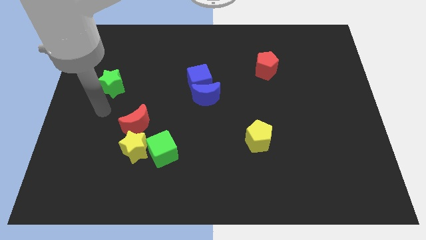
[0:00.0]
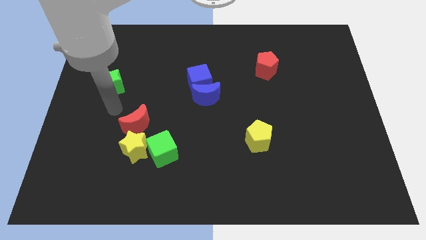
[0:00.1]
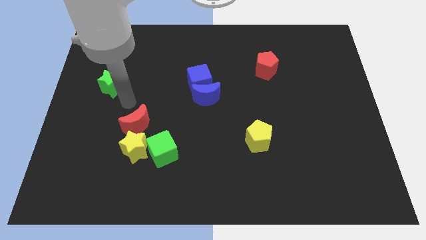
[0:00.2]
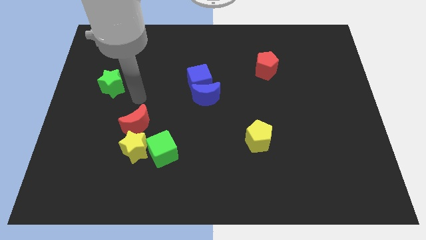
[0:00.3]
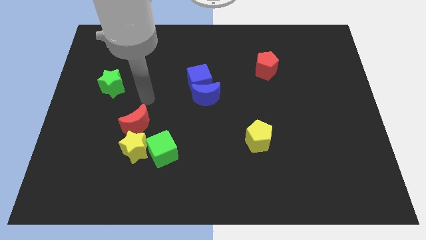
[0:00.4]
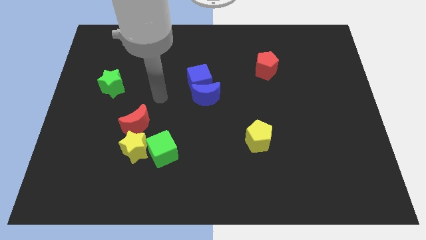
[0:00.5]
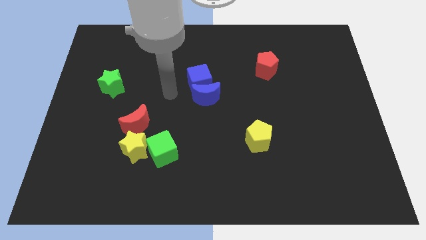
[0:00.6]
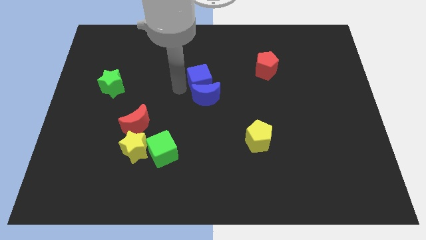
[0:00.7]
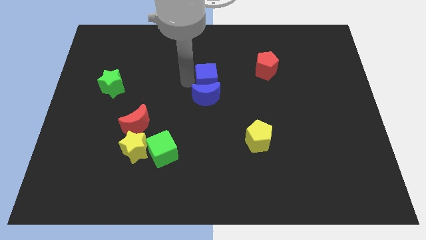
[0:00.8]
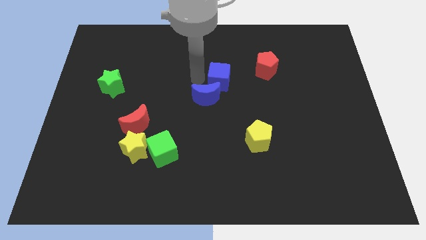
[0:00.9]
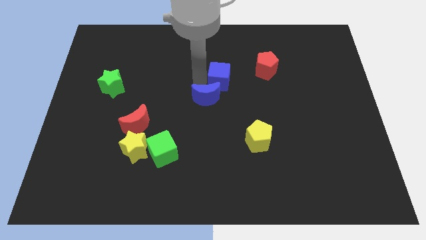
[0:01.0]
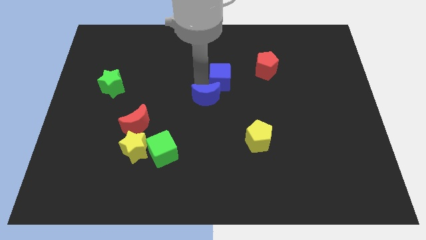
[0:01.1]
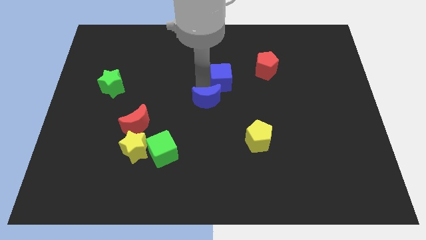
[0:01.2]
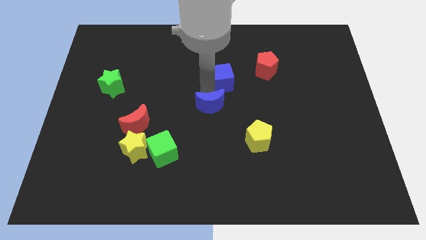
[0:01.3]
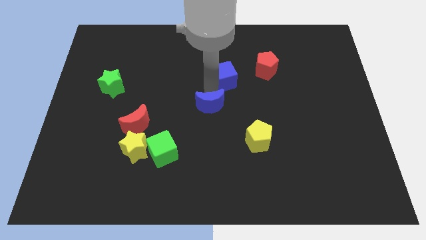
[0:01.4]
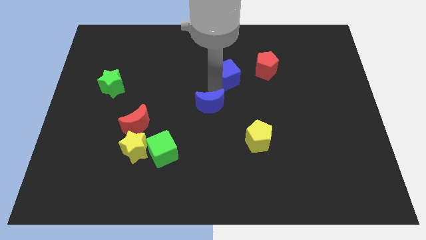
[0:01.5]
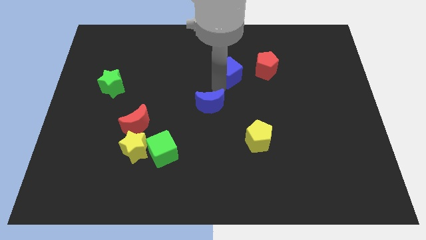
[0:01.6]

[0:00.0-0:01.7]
separate the blue moon from the blue cube

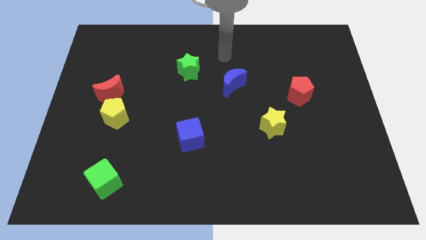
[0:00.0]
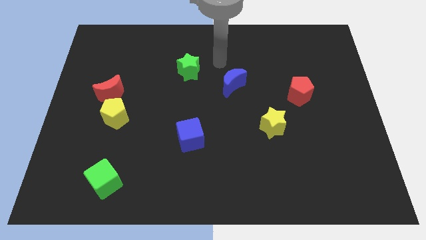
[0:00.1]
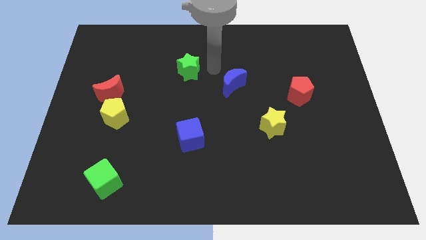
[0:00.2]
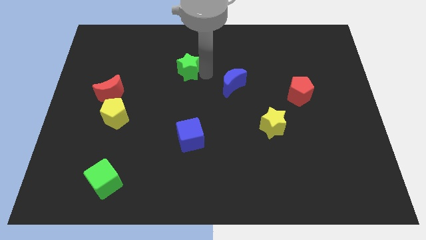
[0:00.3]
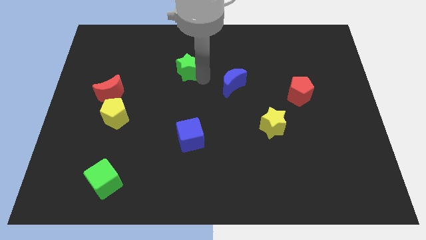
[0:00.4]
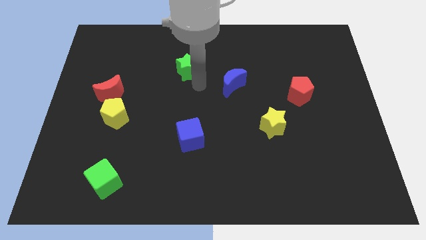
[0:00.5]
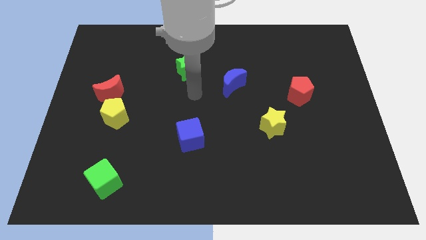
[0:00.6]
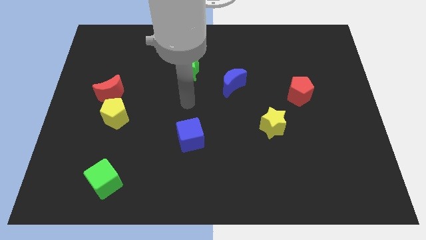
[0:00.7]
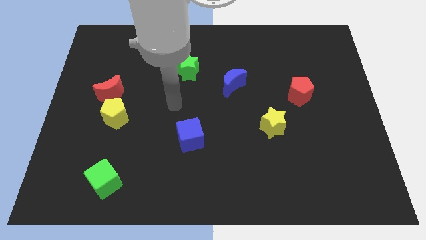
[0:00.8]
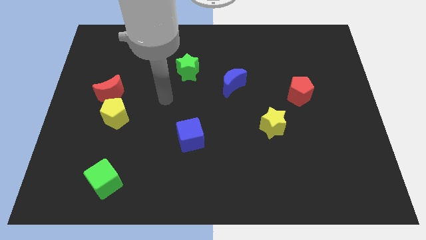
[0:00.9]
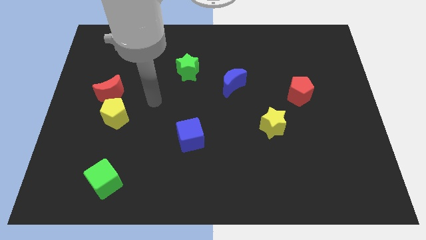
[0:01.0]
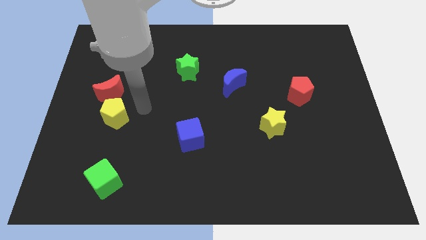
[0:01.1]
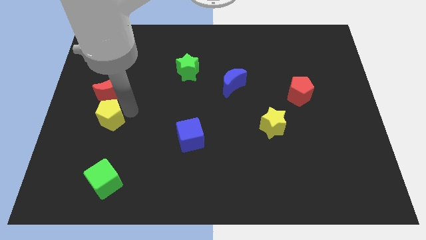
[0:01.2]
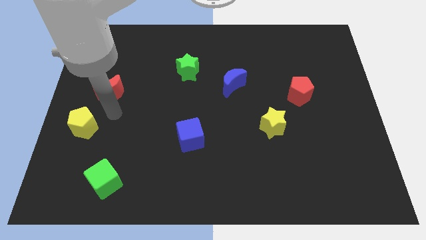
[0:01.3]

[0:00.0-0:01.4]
separate the red moon from the yellow pentagon

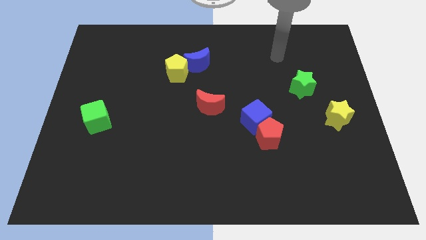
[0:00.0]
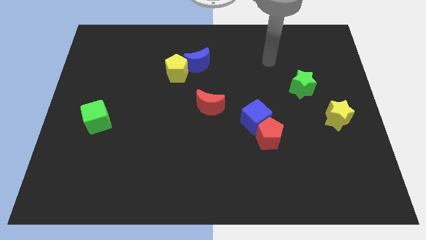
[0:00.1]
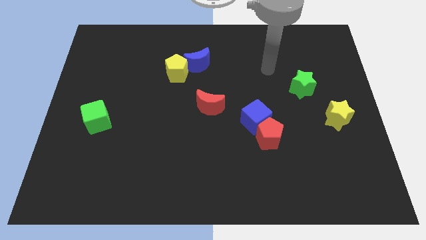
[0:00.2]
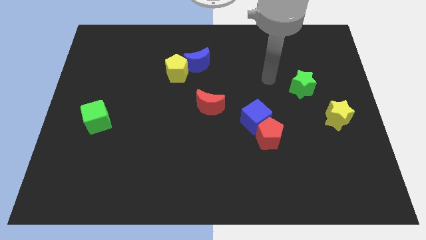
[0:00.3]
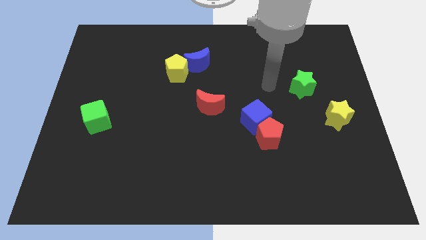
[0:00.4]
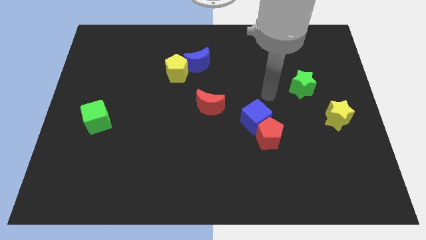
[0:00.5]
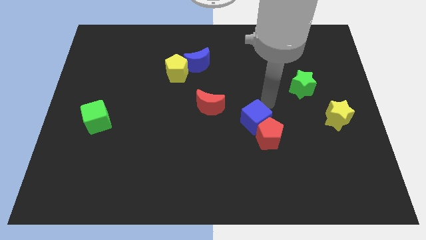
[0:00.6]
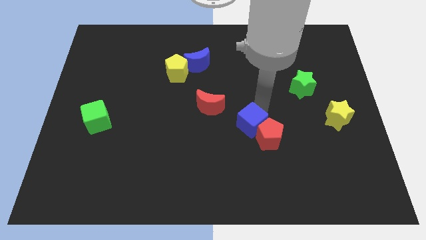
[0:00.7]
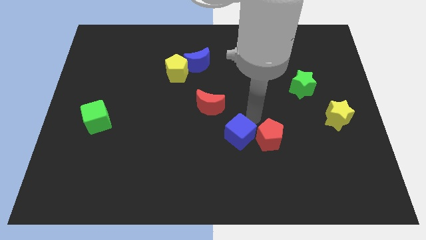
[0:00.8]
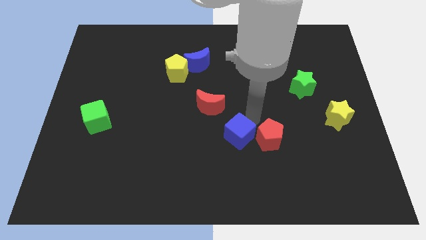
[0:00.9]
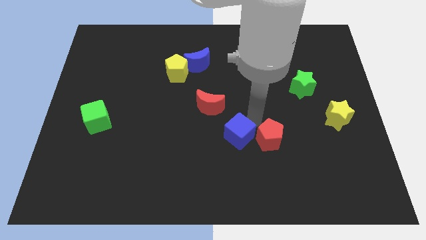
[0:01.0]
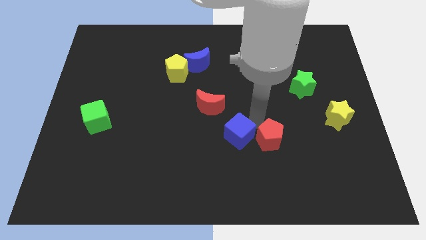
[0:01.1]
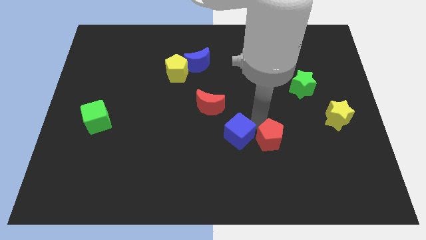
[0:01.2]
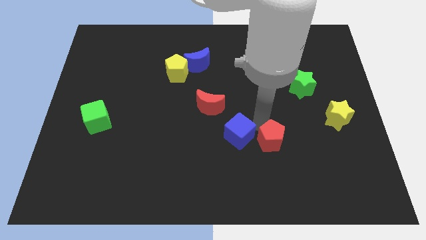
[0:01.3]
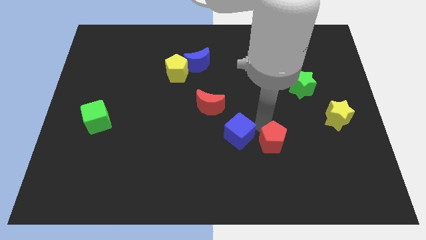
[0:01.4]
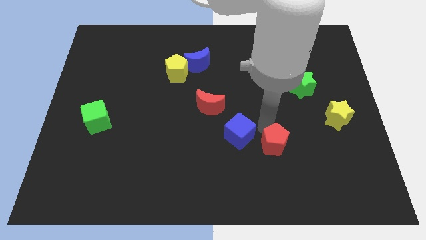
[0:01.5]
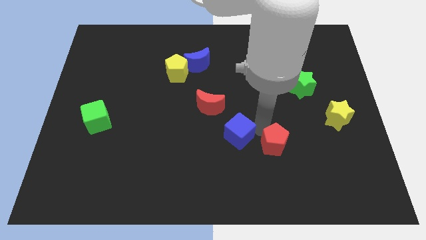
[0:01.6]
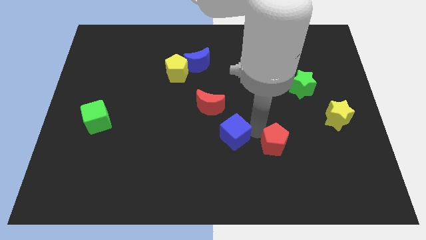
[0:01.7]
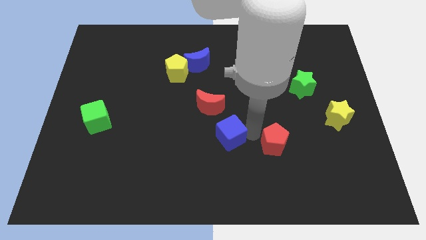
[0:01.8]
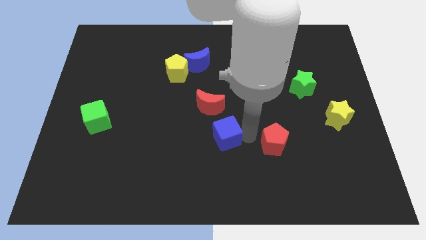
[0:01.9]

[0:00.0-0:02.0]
separate the red pentagon from the blue cube

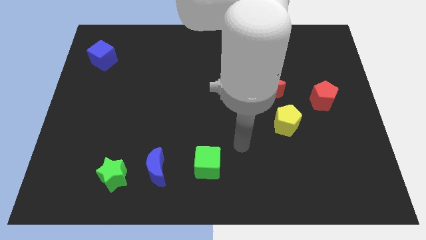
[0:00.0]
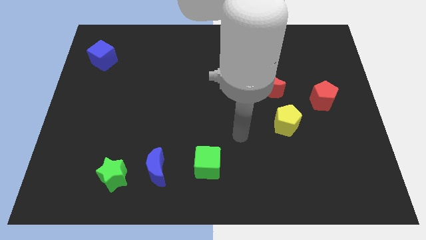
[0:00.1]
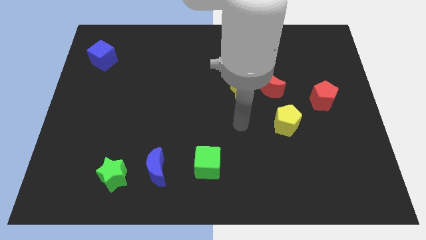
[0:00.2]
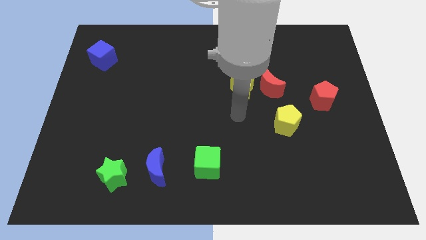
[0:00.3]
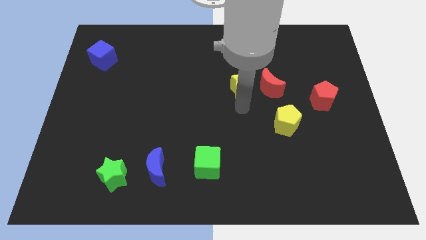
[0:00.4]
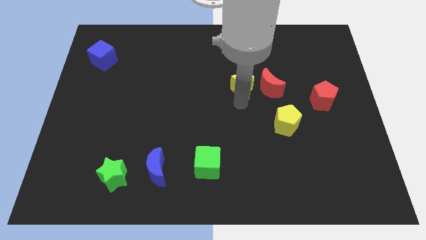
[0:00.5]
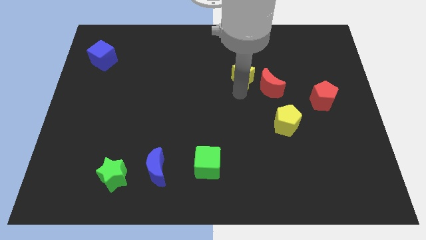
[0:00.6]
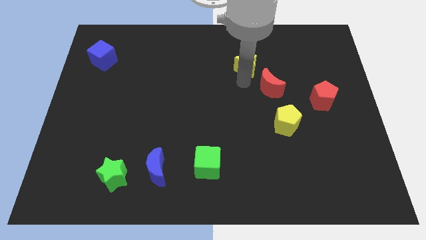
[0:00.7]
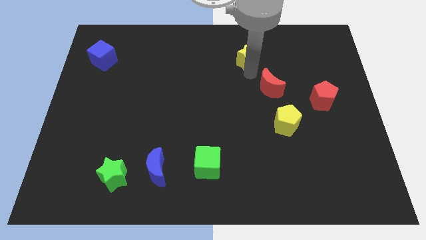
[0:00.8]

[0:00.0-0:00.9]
pull the red moon apart from the yellow star

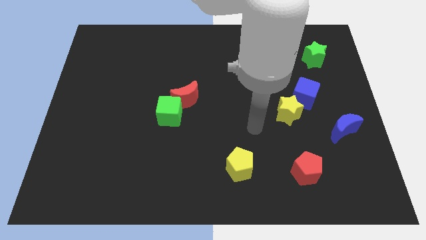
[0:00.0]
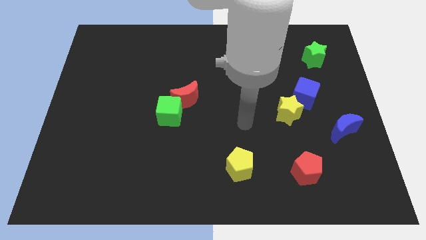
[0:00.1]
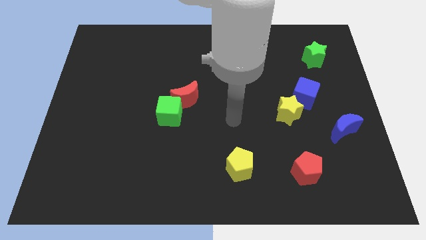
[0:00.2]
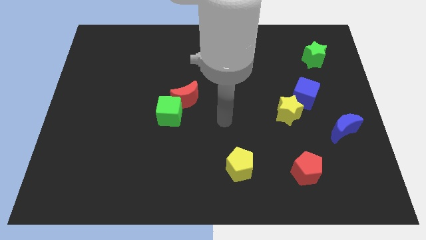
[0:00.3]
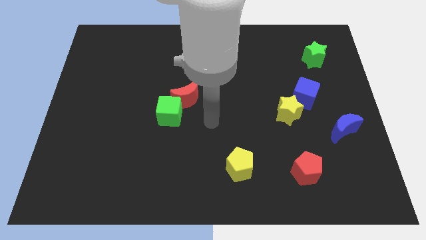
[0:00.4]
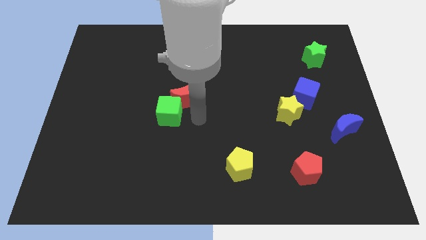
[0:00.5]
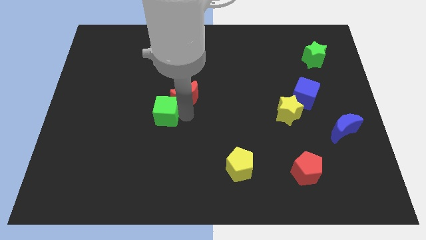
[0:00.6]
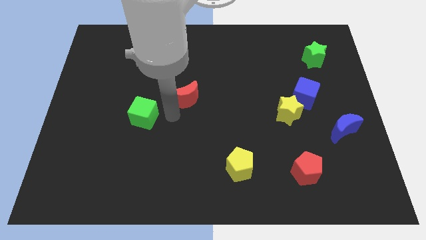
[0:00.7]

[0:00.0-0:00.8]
pull the red moon apart from the green cube

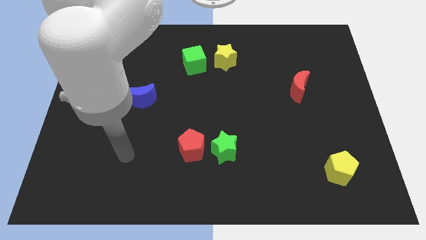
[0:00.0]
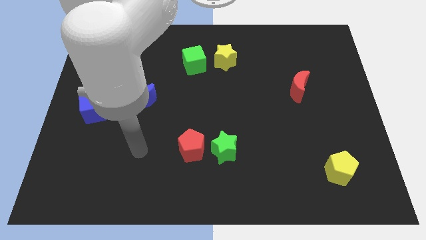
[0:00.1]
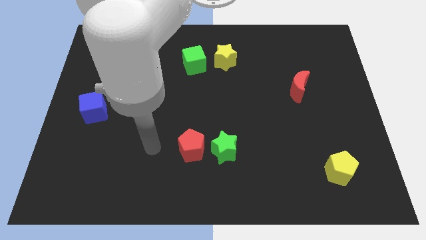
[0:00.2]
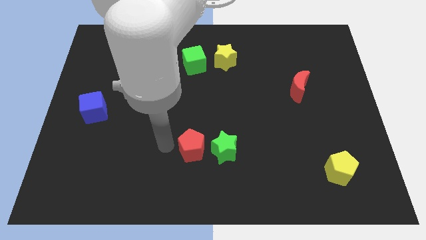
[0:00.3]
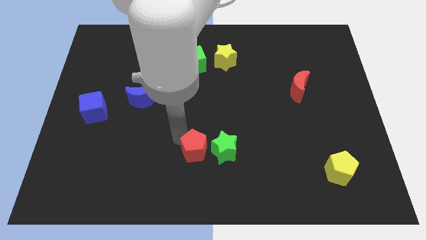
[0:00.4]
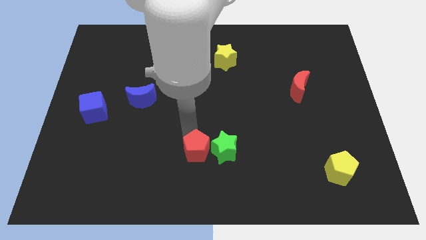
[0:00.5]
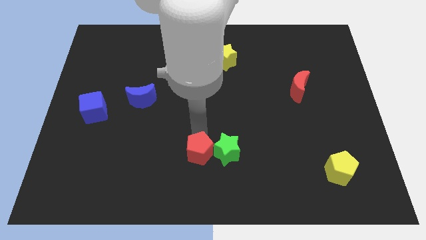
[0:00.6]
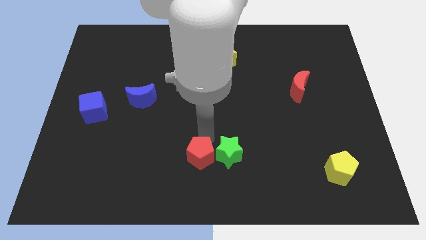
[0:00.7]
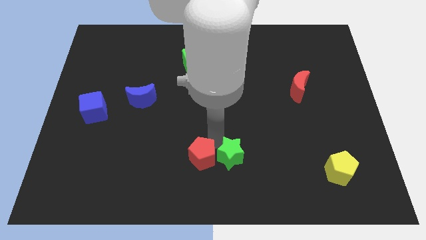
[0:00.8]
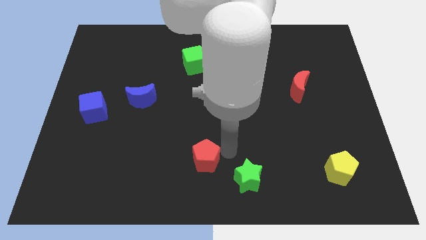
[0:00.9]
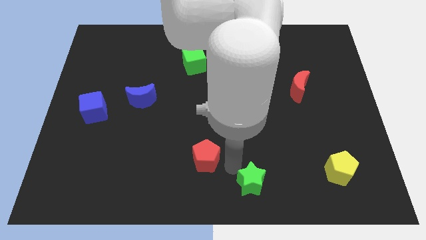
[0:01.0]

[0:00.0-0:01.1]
move the red pentagon away from the green star

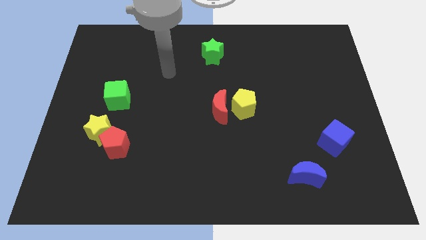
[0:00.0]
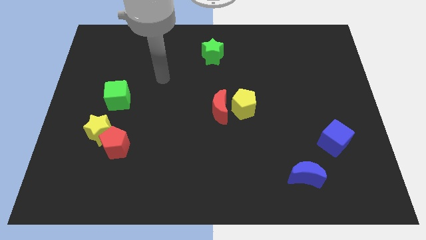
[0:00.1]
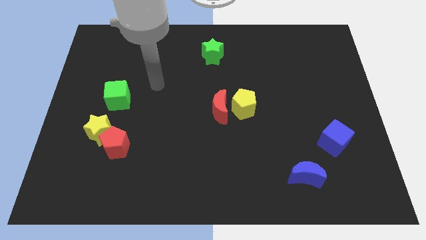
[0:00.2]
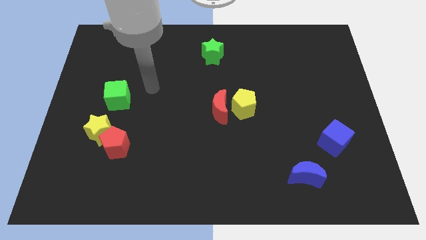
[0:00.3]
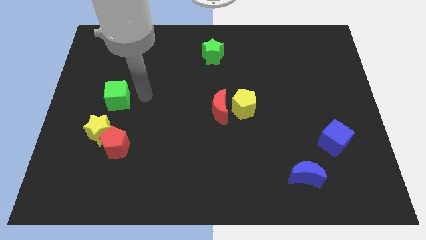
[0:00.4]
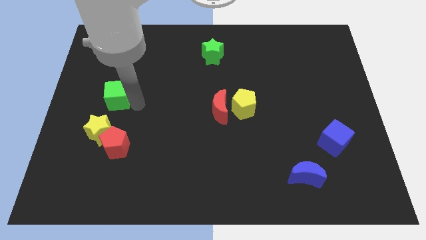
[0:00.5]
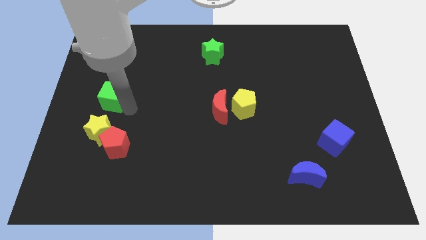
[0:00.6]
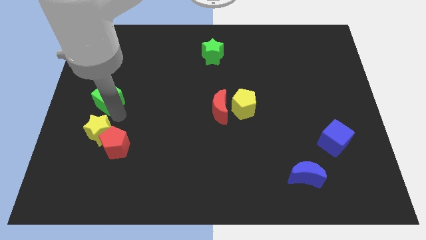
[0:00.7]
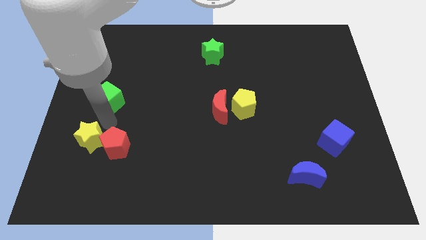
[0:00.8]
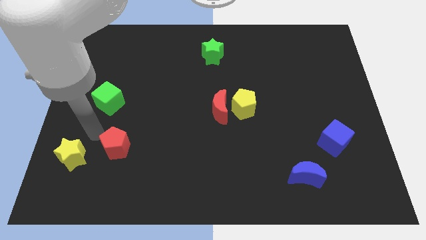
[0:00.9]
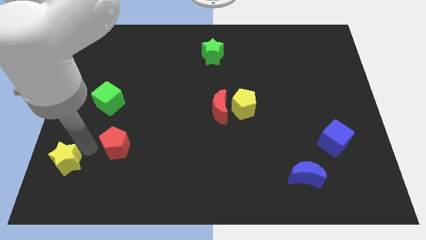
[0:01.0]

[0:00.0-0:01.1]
separate the red pentagon from the yellow star

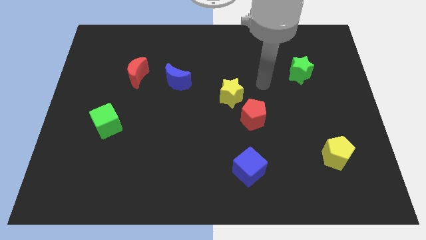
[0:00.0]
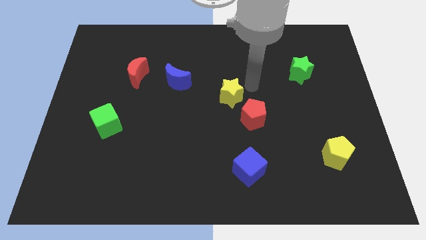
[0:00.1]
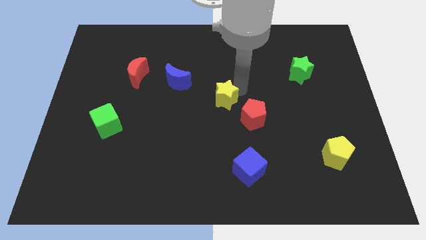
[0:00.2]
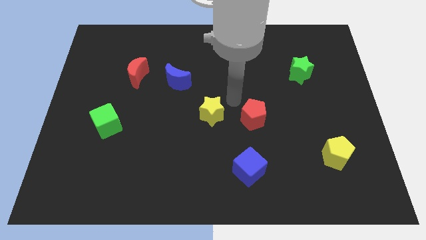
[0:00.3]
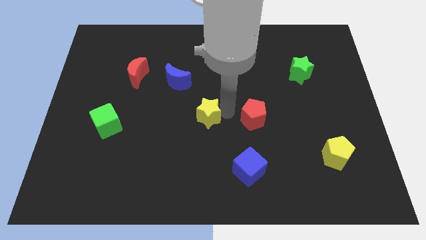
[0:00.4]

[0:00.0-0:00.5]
pull the red pentagon apart from the yellow star

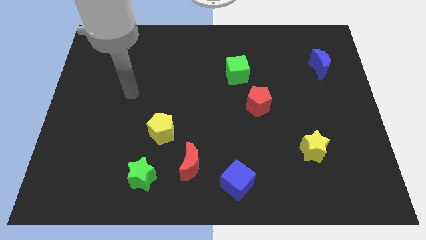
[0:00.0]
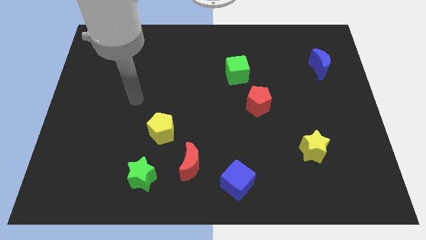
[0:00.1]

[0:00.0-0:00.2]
separate the green star from the red moon
